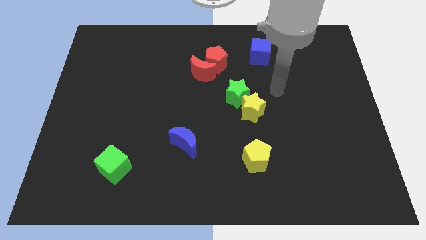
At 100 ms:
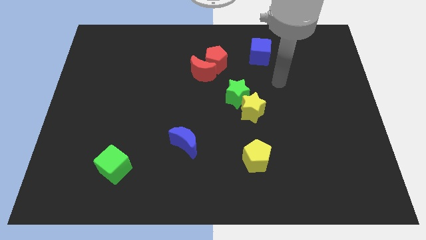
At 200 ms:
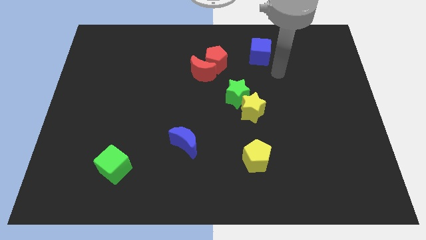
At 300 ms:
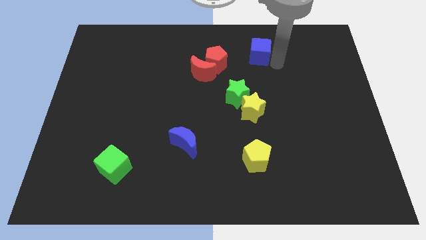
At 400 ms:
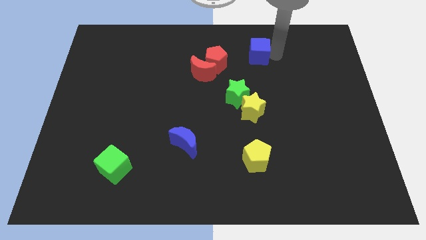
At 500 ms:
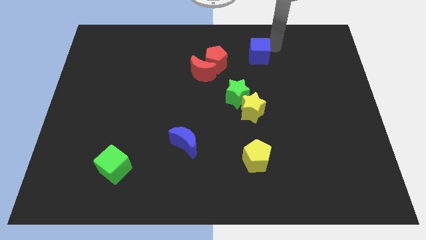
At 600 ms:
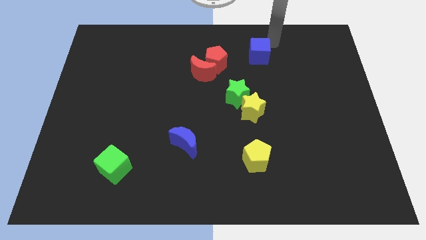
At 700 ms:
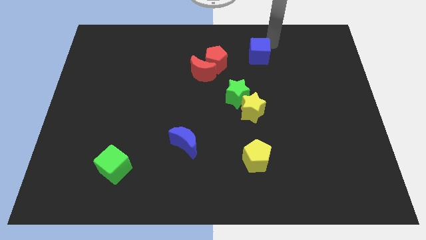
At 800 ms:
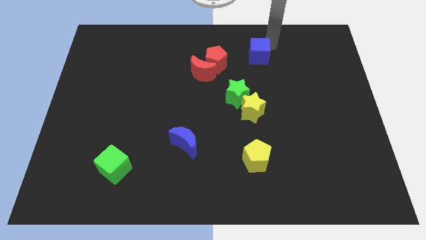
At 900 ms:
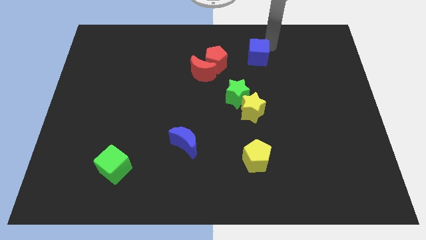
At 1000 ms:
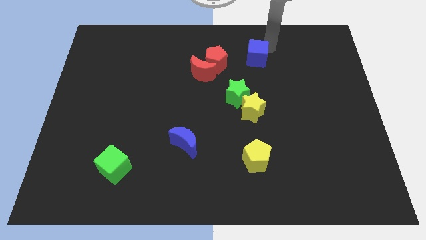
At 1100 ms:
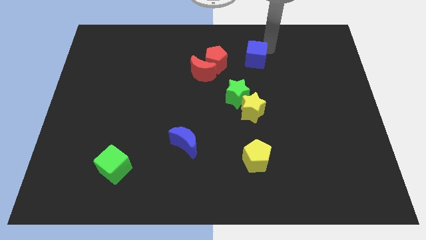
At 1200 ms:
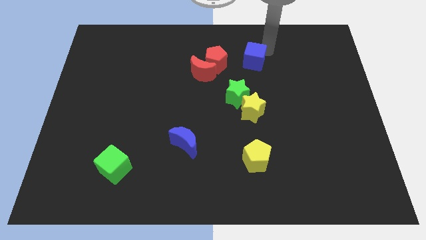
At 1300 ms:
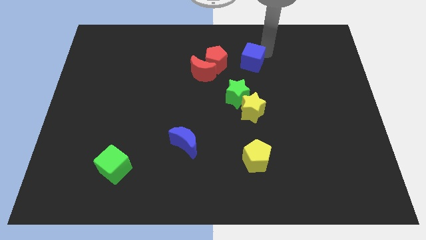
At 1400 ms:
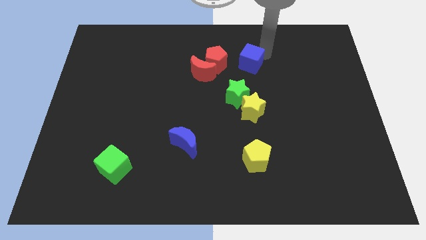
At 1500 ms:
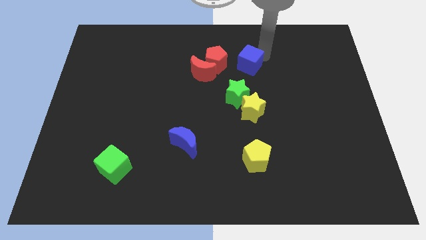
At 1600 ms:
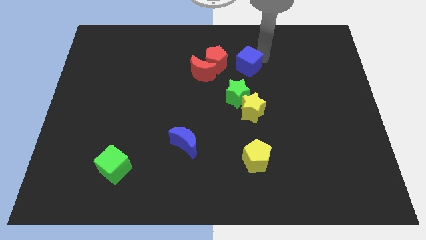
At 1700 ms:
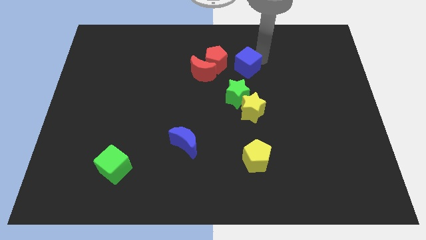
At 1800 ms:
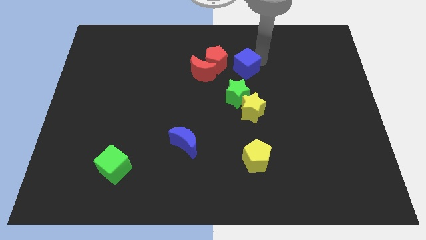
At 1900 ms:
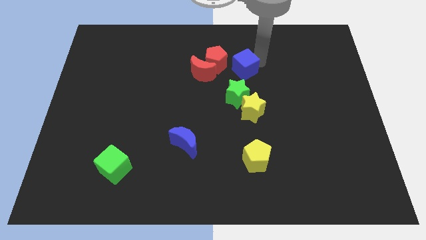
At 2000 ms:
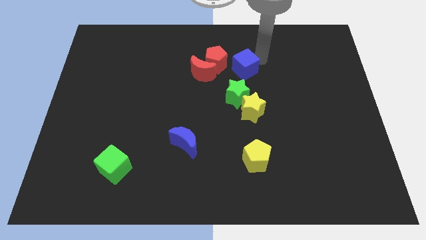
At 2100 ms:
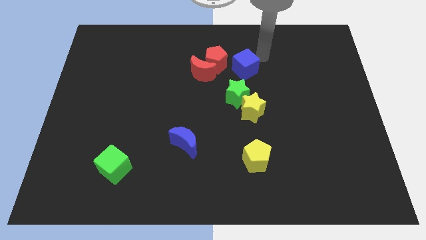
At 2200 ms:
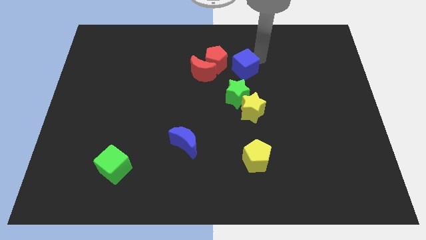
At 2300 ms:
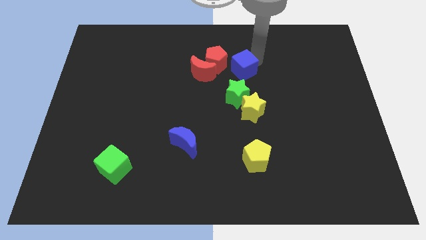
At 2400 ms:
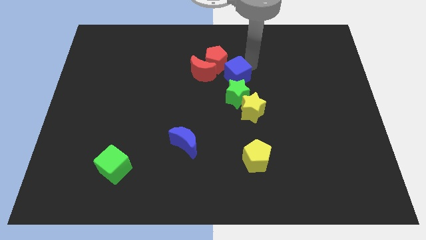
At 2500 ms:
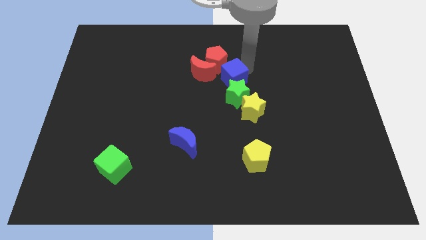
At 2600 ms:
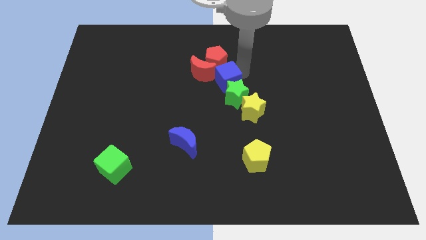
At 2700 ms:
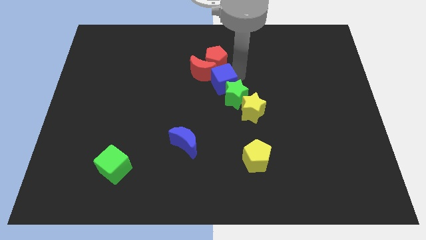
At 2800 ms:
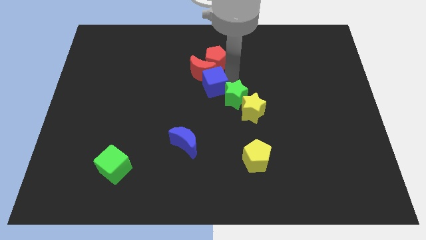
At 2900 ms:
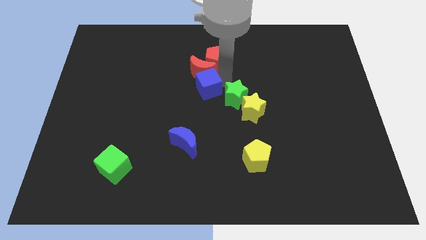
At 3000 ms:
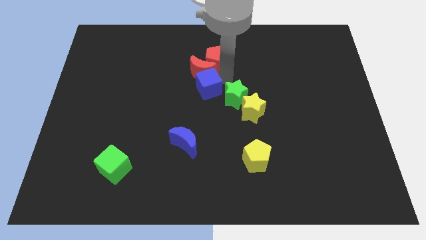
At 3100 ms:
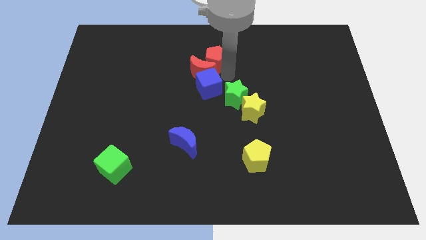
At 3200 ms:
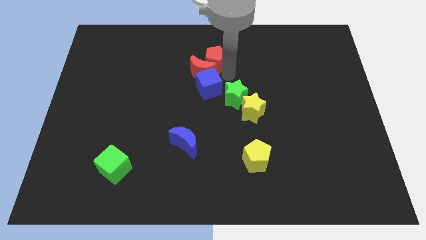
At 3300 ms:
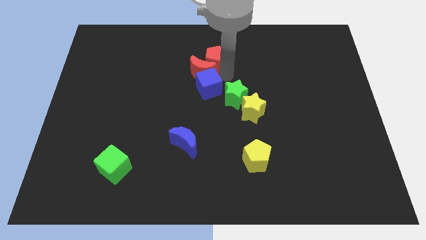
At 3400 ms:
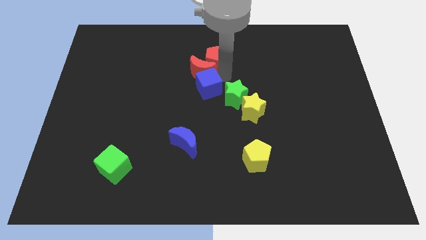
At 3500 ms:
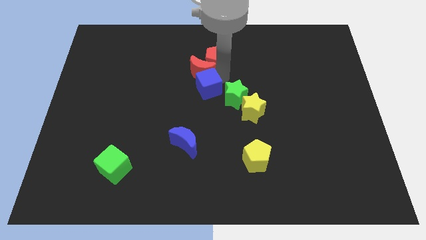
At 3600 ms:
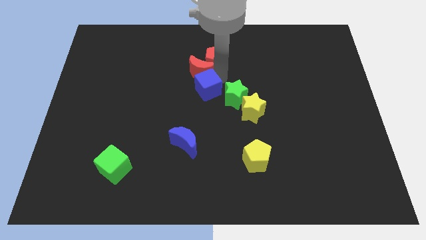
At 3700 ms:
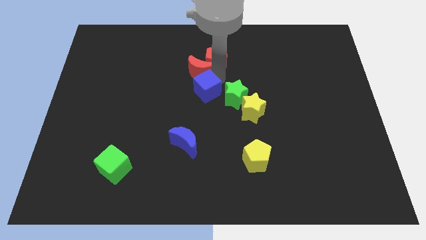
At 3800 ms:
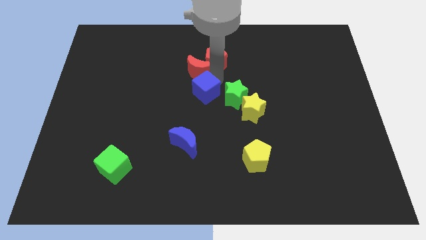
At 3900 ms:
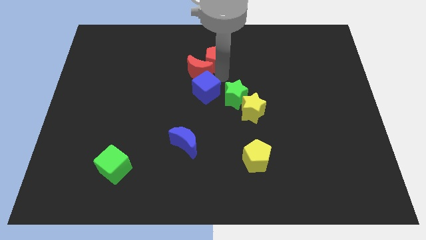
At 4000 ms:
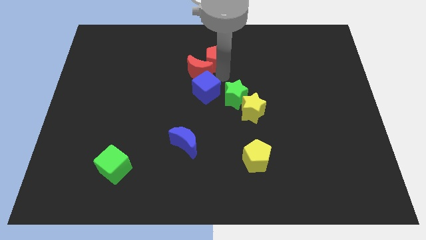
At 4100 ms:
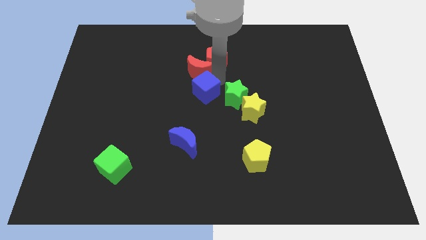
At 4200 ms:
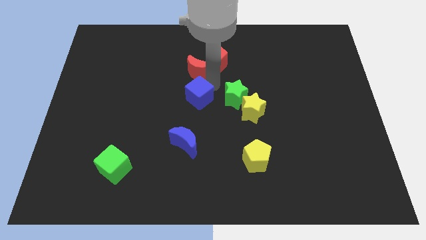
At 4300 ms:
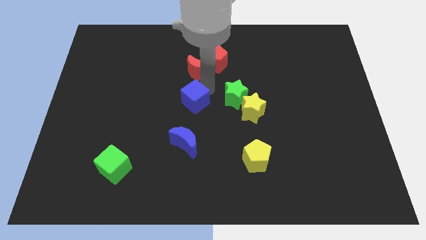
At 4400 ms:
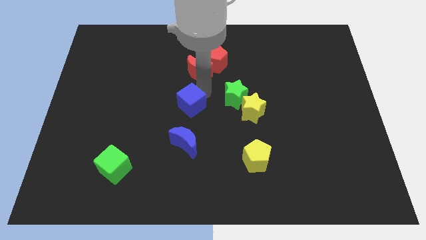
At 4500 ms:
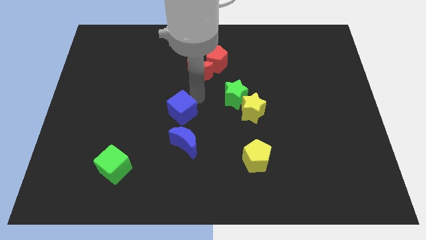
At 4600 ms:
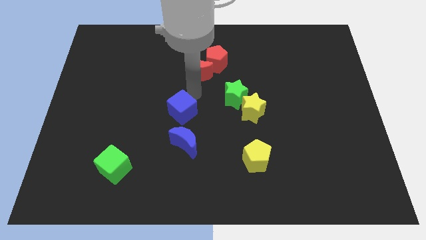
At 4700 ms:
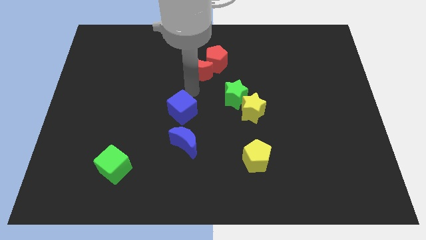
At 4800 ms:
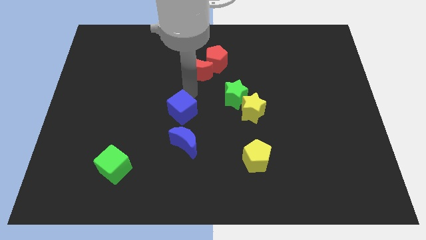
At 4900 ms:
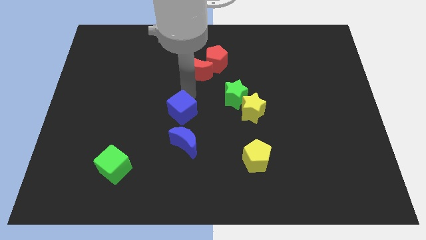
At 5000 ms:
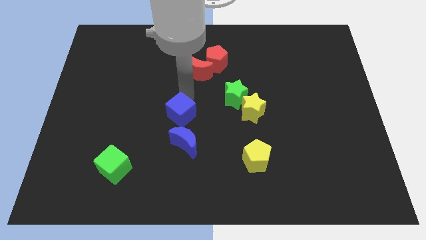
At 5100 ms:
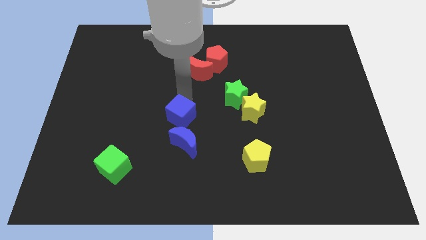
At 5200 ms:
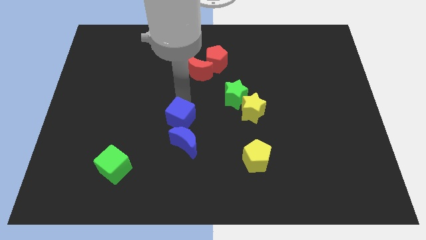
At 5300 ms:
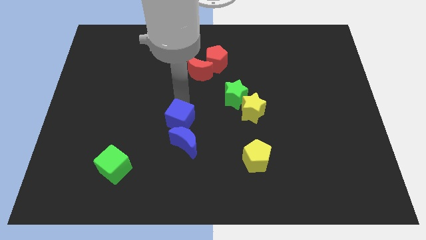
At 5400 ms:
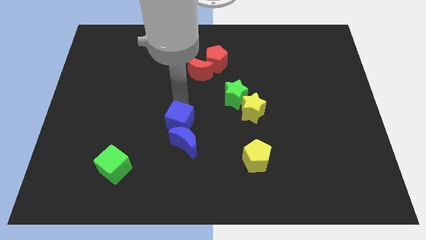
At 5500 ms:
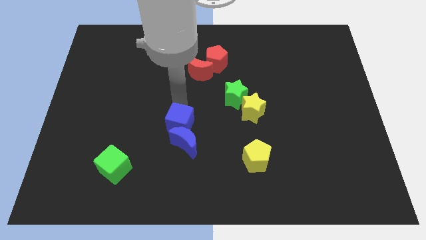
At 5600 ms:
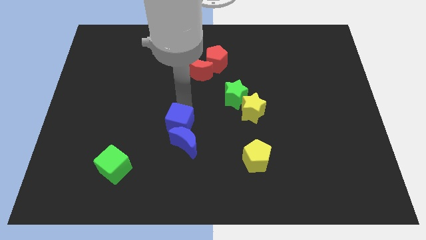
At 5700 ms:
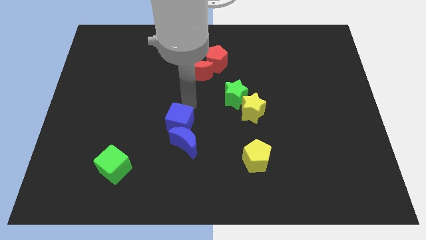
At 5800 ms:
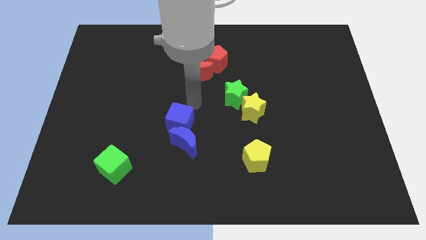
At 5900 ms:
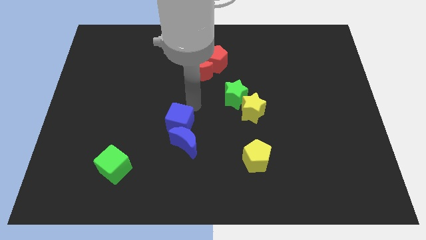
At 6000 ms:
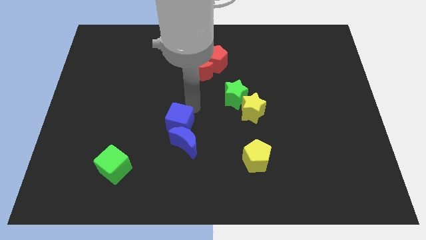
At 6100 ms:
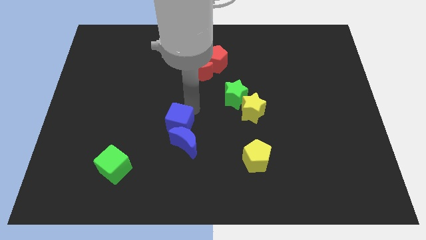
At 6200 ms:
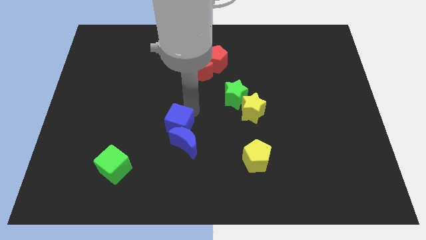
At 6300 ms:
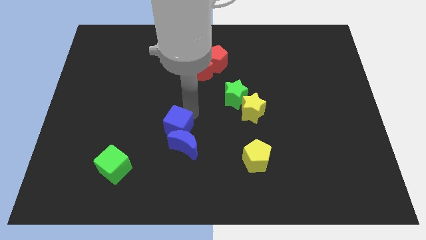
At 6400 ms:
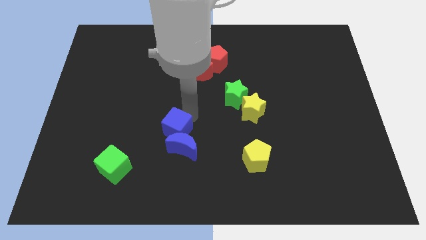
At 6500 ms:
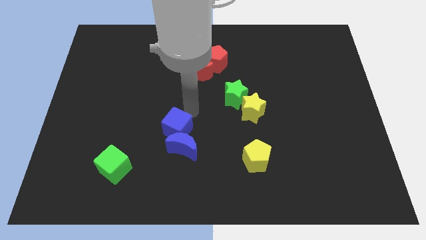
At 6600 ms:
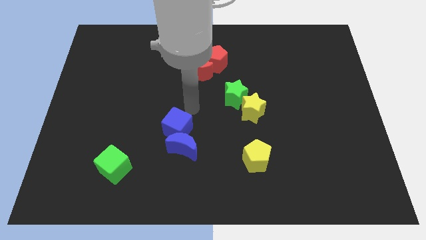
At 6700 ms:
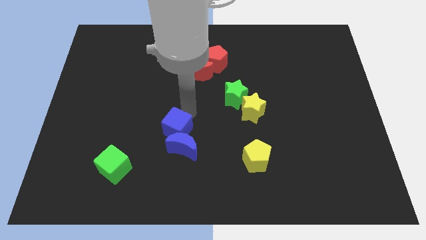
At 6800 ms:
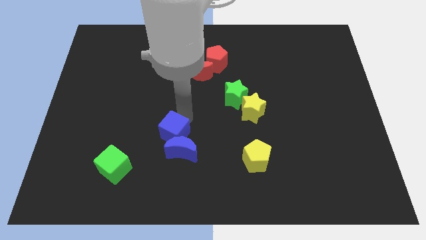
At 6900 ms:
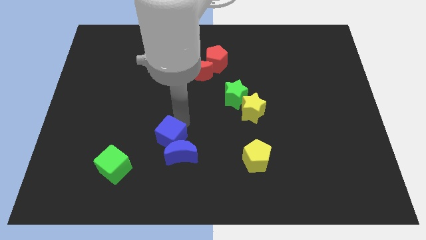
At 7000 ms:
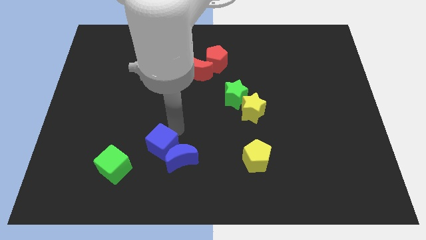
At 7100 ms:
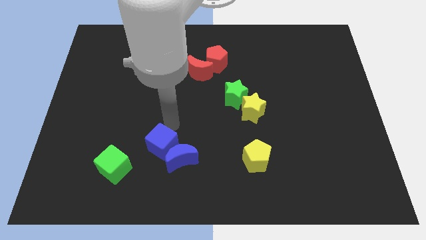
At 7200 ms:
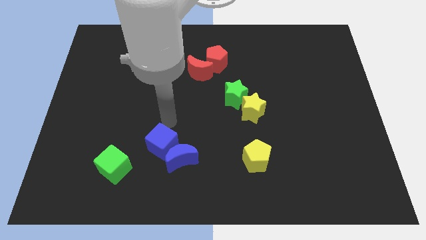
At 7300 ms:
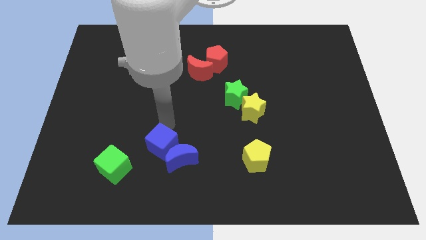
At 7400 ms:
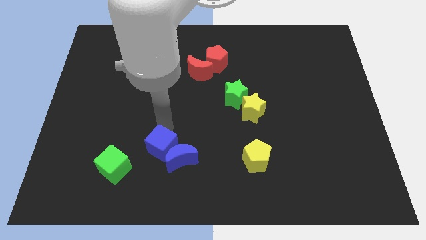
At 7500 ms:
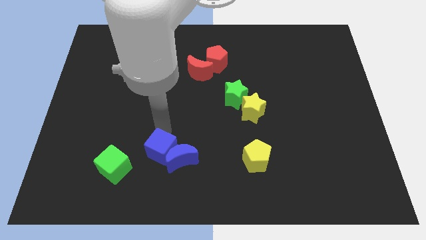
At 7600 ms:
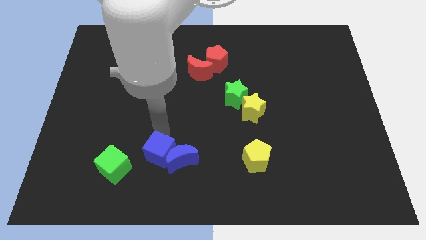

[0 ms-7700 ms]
slide the blue cube diagonally down and to the left of the blue moon
